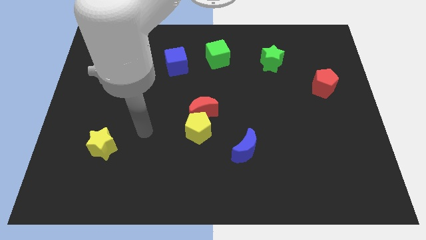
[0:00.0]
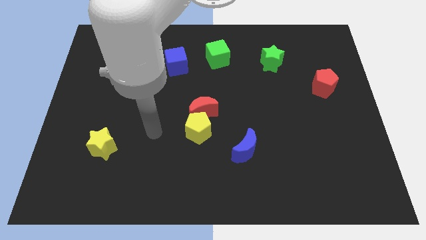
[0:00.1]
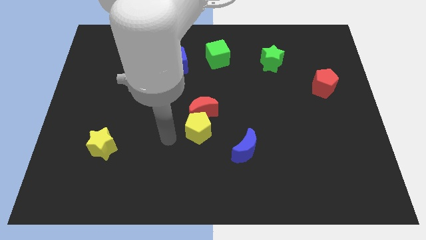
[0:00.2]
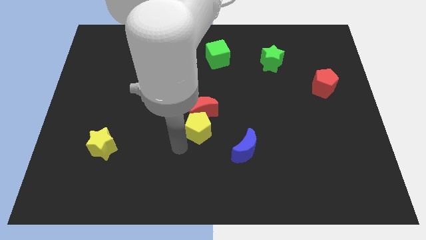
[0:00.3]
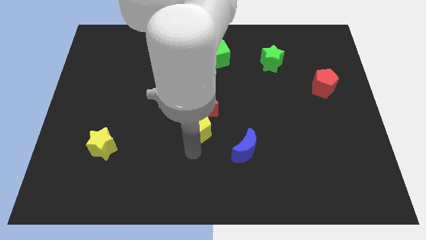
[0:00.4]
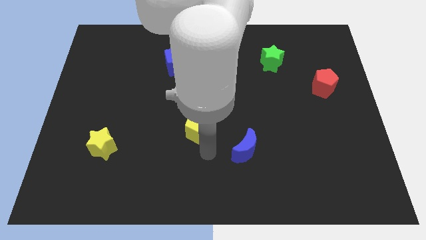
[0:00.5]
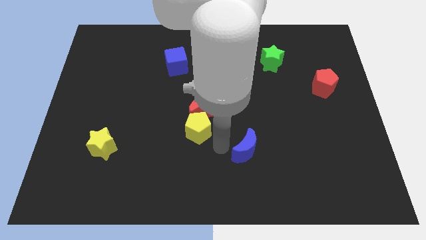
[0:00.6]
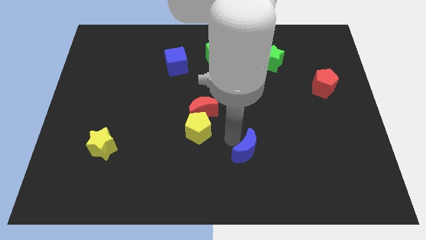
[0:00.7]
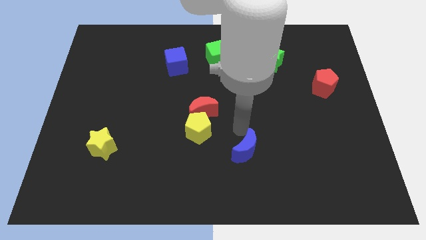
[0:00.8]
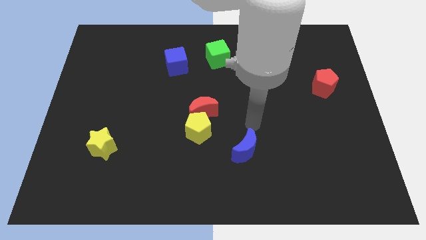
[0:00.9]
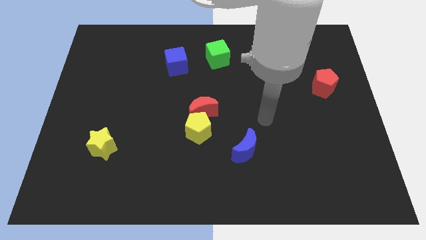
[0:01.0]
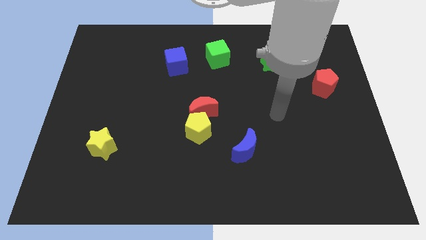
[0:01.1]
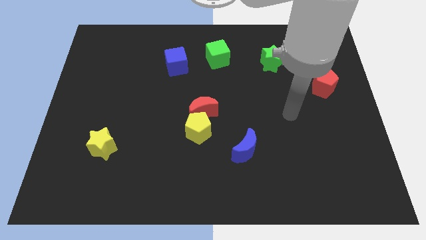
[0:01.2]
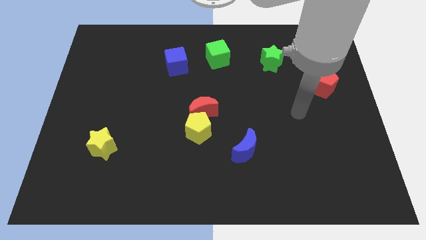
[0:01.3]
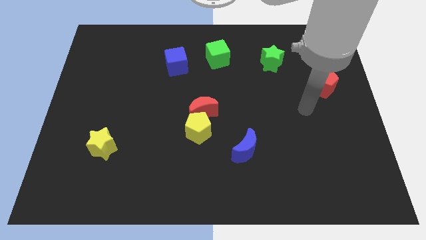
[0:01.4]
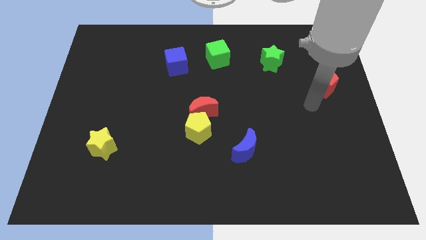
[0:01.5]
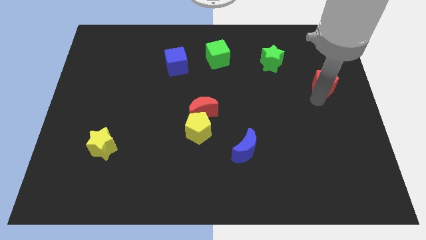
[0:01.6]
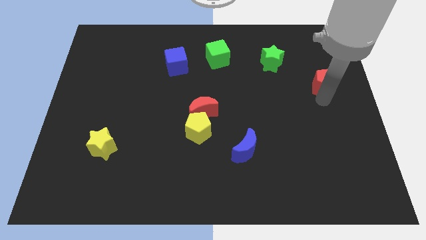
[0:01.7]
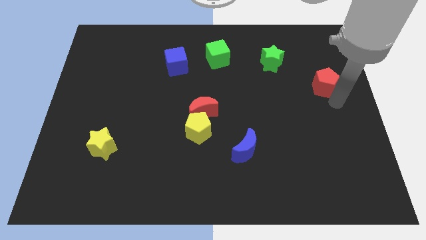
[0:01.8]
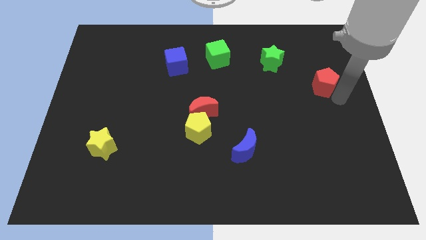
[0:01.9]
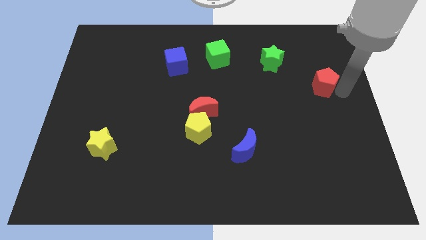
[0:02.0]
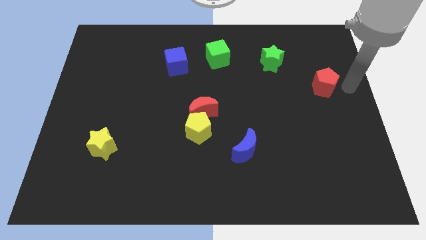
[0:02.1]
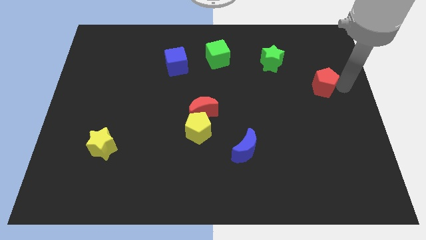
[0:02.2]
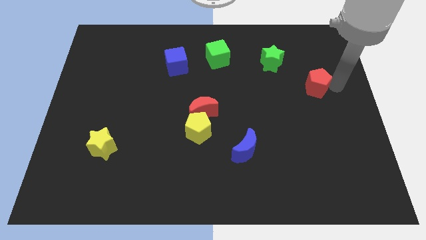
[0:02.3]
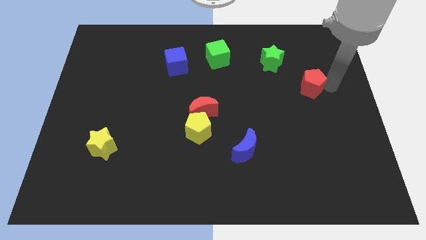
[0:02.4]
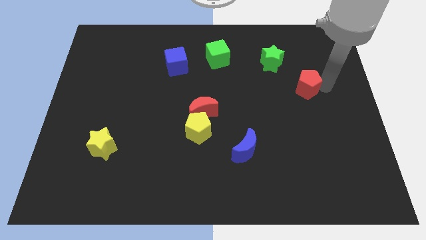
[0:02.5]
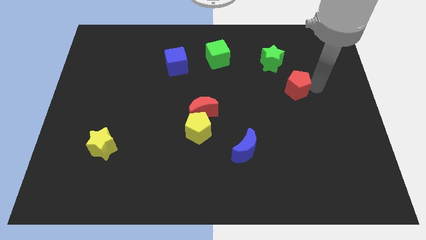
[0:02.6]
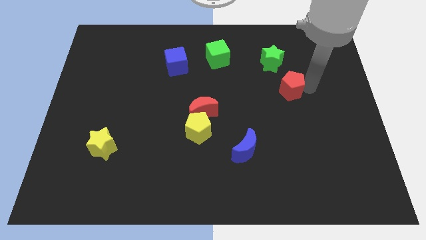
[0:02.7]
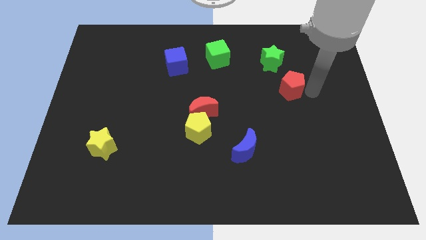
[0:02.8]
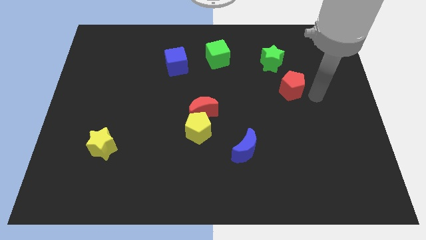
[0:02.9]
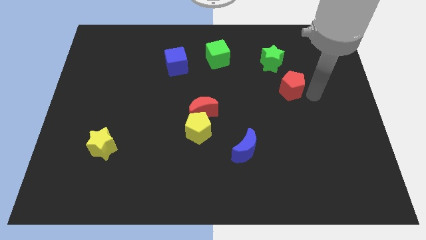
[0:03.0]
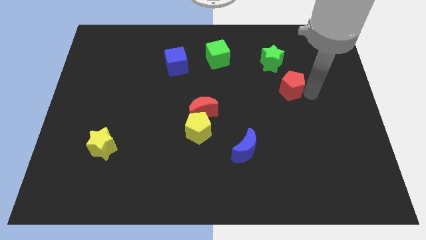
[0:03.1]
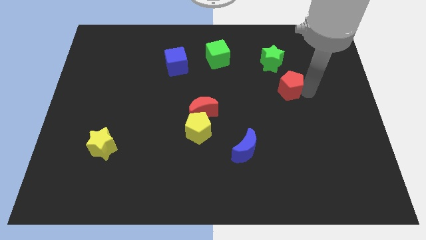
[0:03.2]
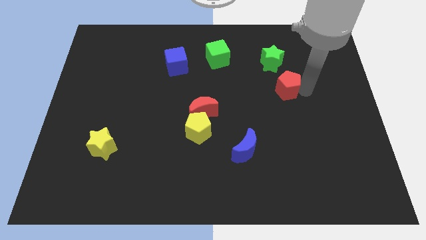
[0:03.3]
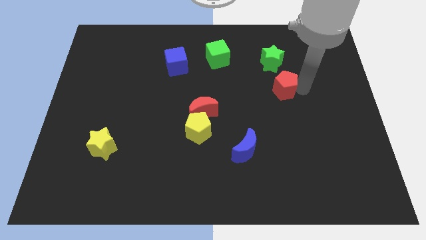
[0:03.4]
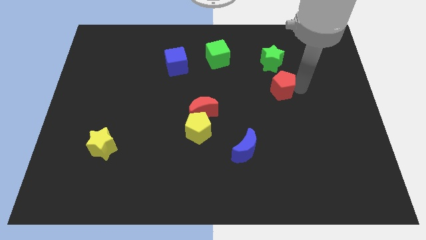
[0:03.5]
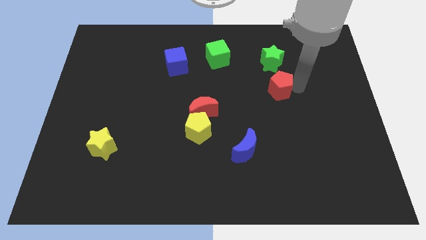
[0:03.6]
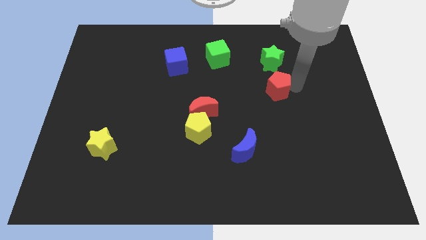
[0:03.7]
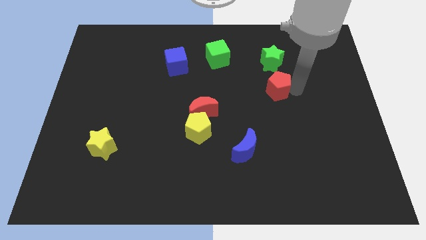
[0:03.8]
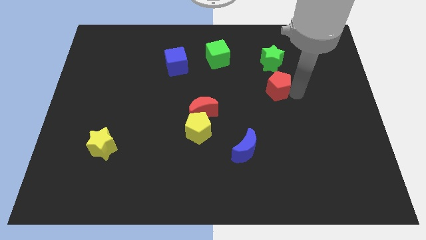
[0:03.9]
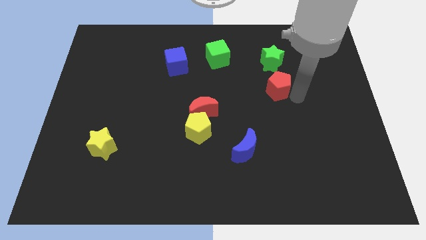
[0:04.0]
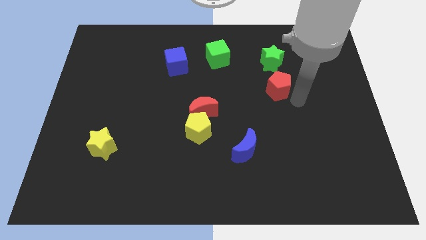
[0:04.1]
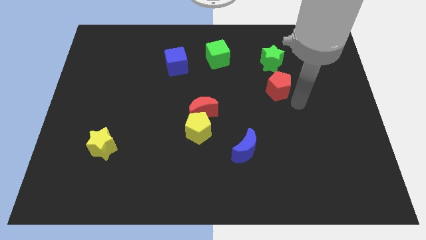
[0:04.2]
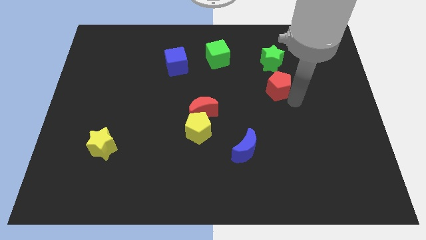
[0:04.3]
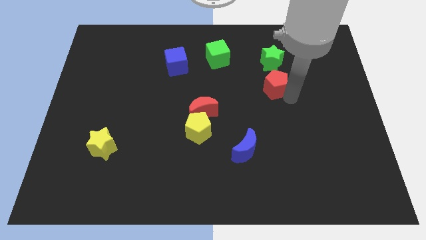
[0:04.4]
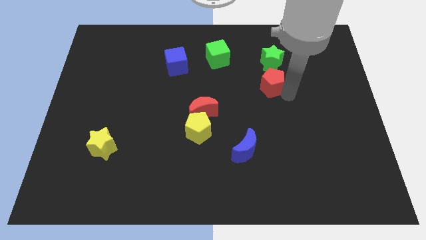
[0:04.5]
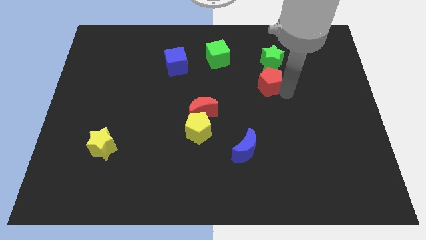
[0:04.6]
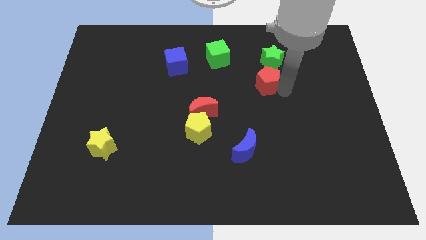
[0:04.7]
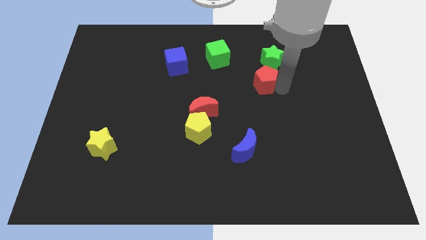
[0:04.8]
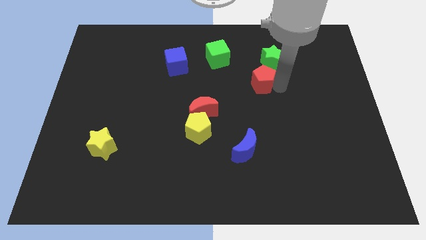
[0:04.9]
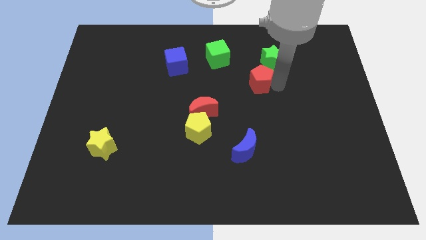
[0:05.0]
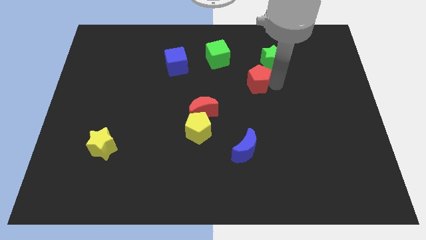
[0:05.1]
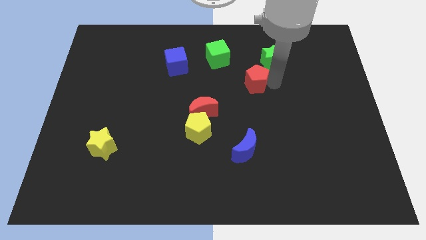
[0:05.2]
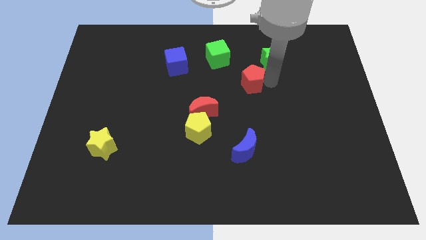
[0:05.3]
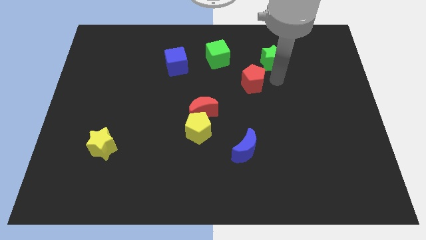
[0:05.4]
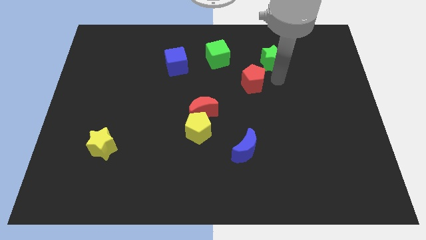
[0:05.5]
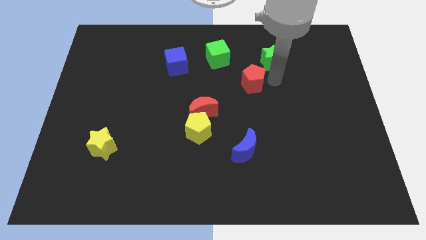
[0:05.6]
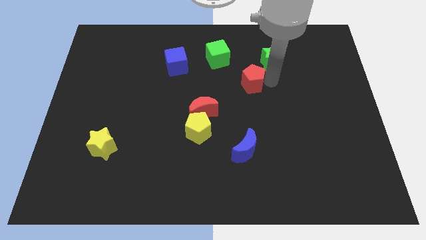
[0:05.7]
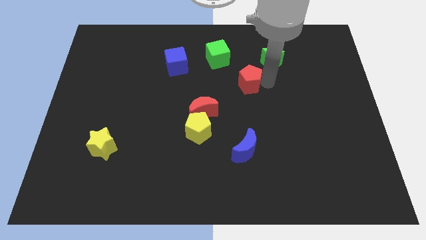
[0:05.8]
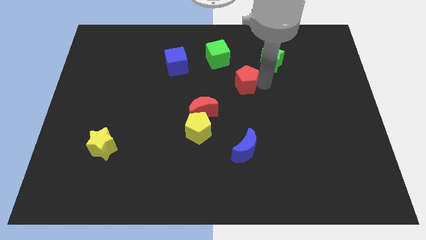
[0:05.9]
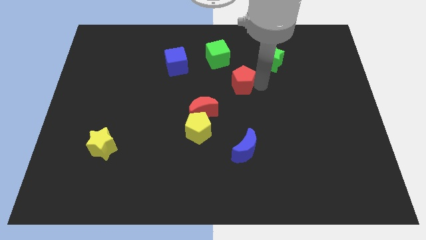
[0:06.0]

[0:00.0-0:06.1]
move the red pentagon left

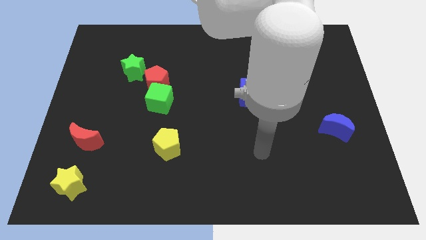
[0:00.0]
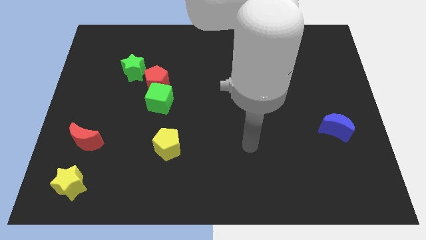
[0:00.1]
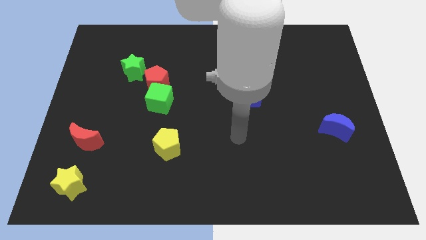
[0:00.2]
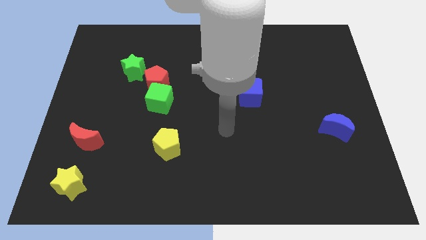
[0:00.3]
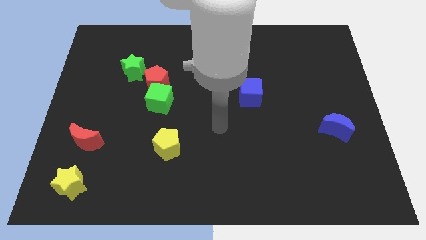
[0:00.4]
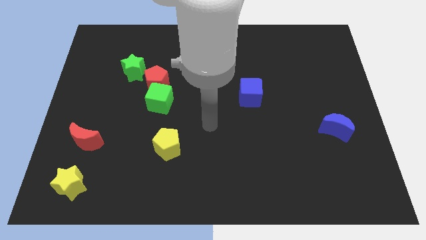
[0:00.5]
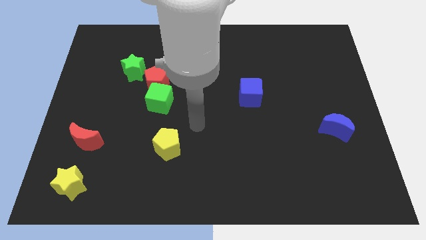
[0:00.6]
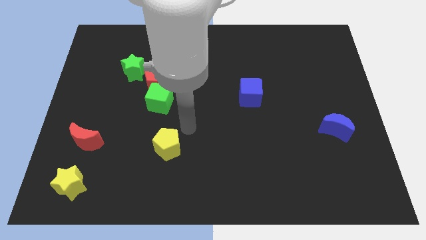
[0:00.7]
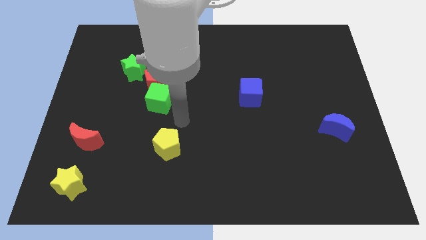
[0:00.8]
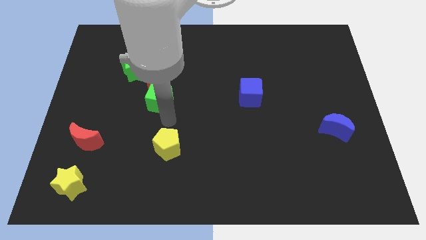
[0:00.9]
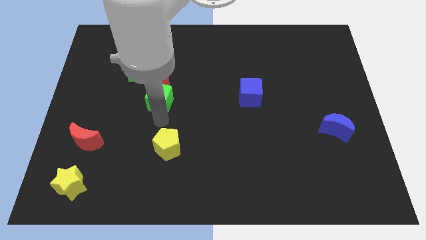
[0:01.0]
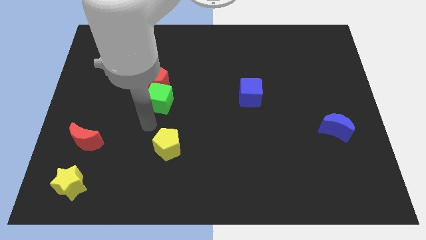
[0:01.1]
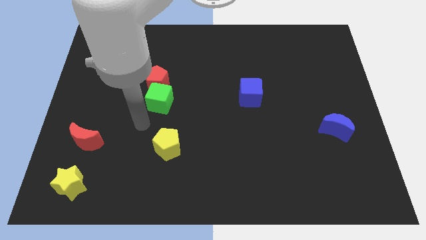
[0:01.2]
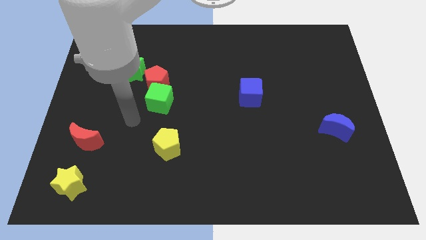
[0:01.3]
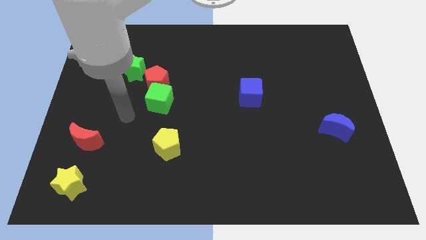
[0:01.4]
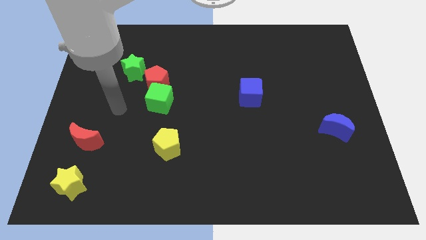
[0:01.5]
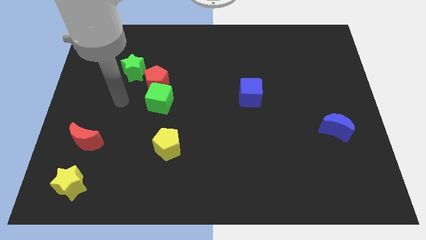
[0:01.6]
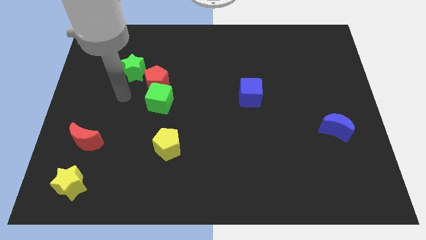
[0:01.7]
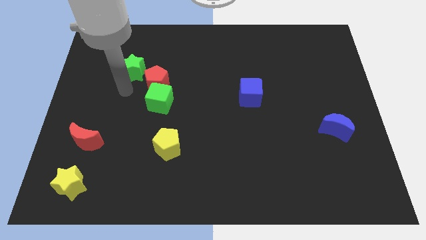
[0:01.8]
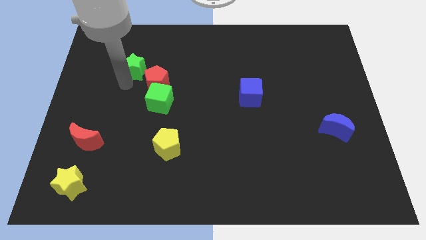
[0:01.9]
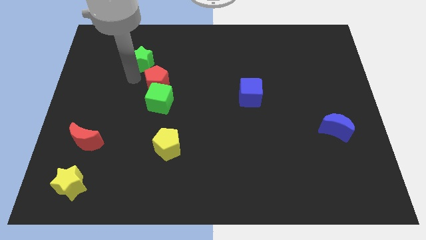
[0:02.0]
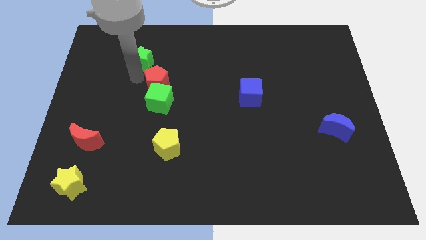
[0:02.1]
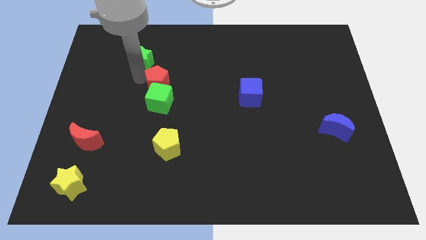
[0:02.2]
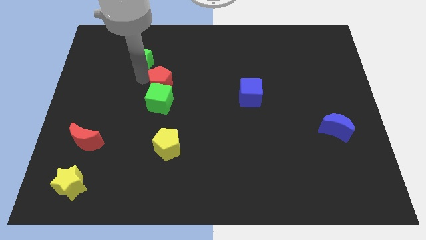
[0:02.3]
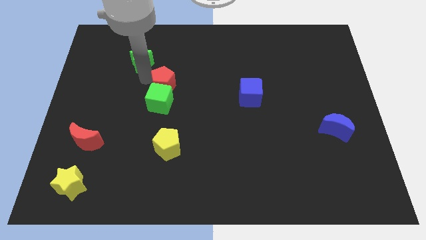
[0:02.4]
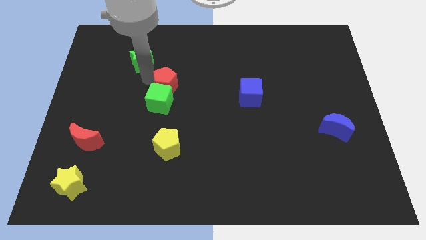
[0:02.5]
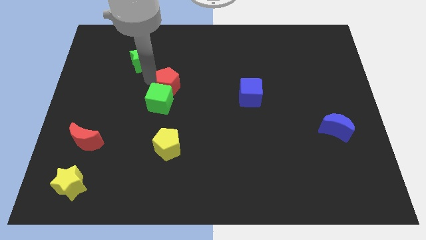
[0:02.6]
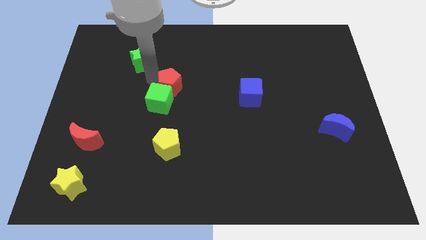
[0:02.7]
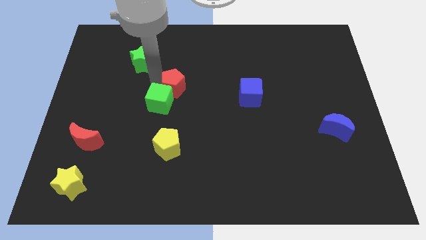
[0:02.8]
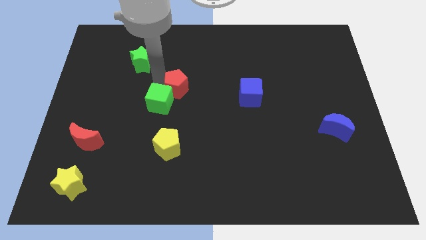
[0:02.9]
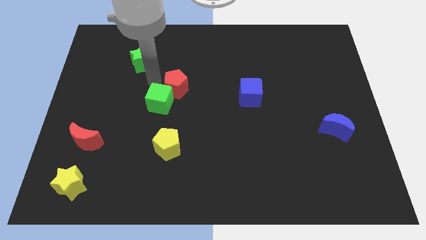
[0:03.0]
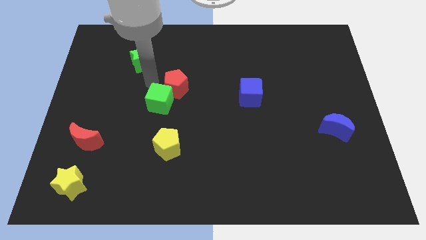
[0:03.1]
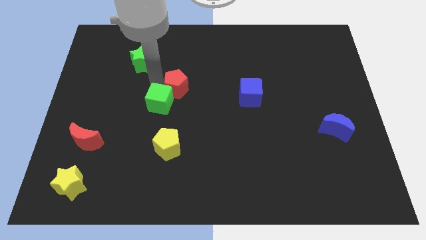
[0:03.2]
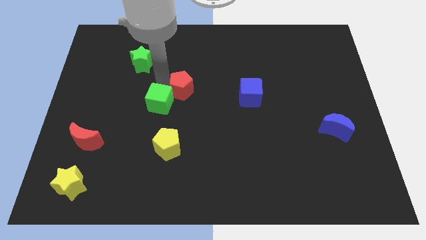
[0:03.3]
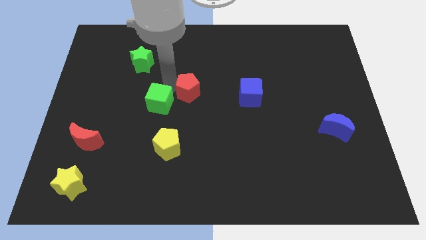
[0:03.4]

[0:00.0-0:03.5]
slide the red pentagon a bit right
